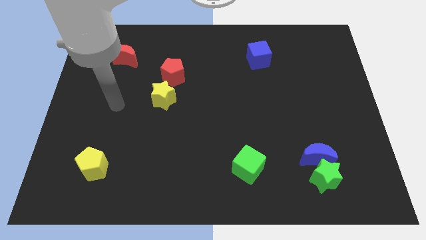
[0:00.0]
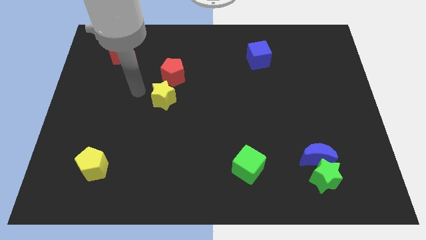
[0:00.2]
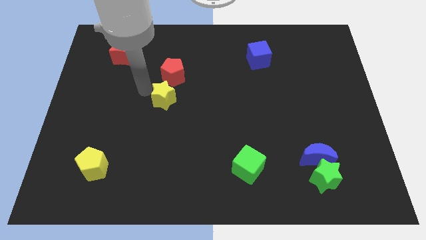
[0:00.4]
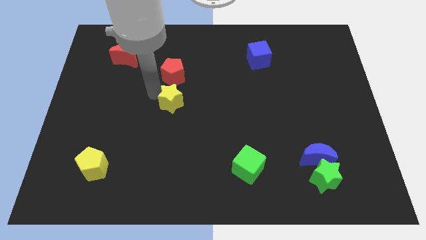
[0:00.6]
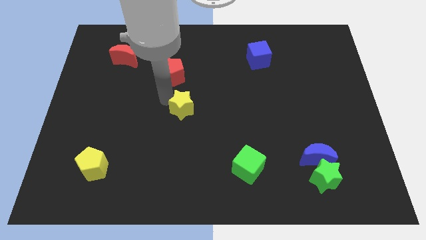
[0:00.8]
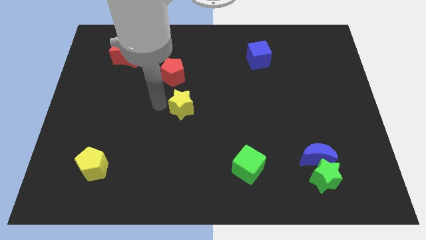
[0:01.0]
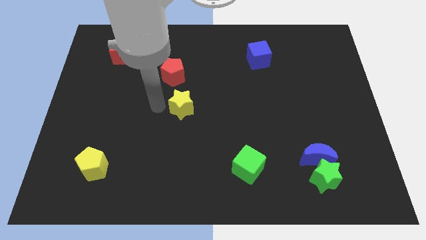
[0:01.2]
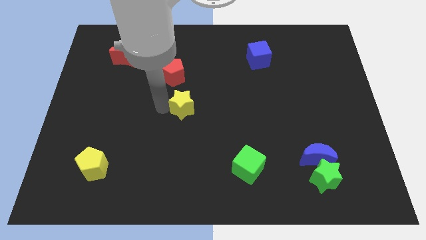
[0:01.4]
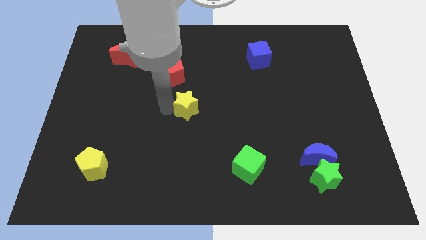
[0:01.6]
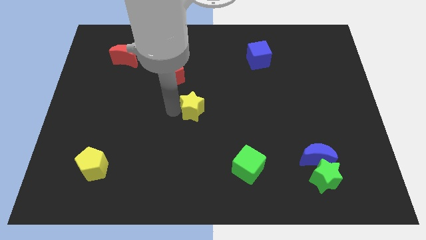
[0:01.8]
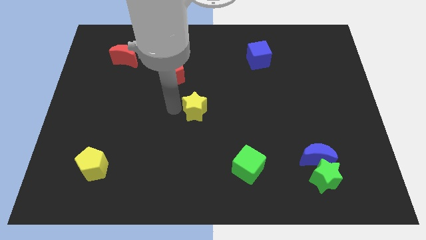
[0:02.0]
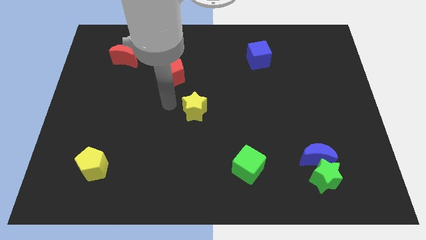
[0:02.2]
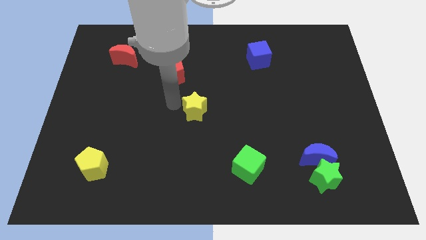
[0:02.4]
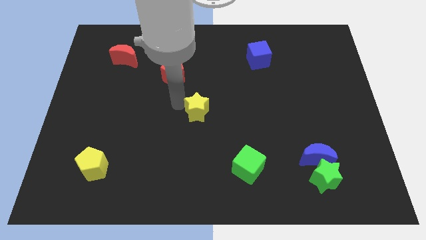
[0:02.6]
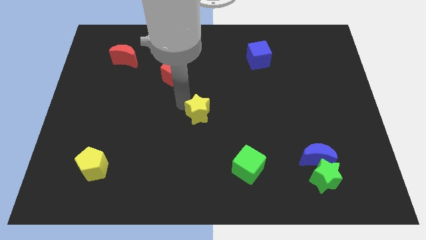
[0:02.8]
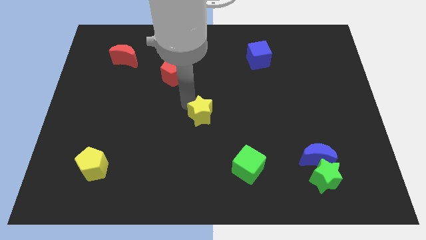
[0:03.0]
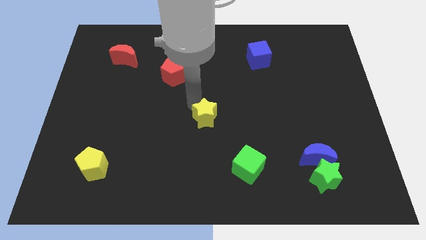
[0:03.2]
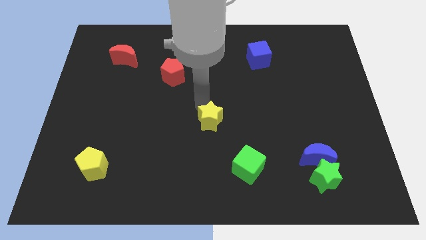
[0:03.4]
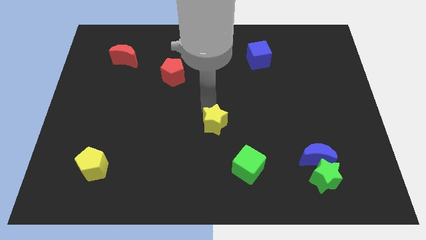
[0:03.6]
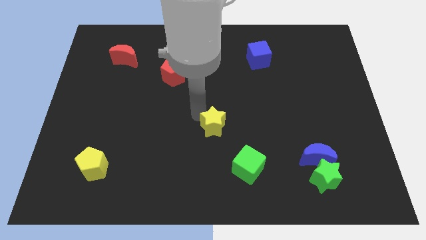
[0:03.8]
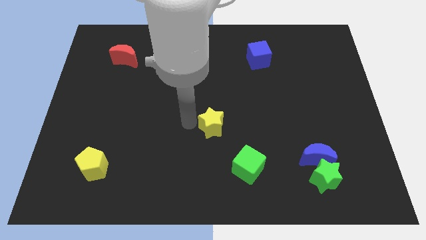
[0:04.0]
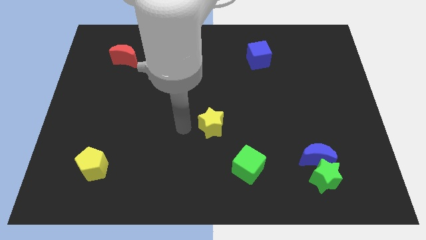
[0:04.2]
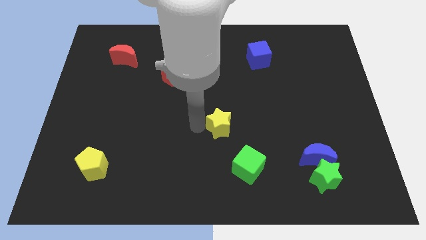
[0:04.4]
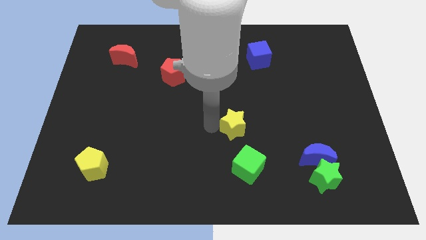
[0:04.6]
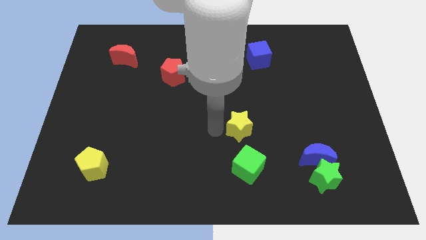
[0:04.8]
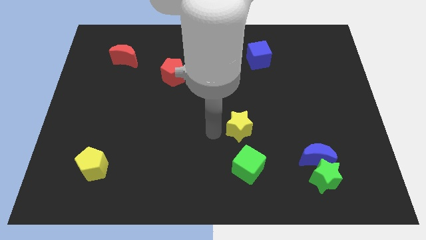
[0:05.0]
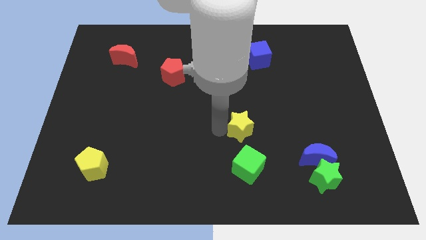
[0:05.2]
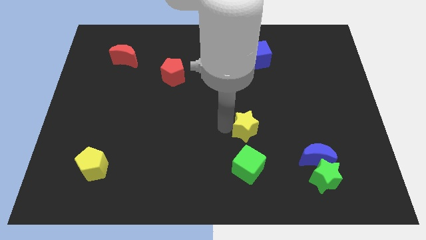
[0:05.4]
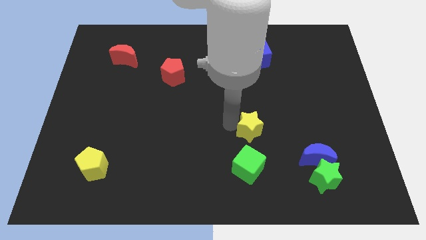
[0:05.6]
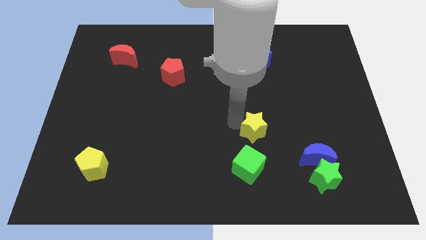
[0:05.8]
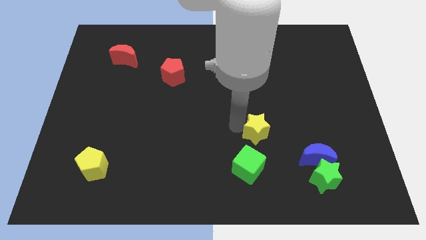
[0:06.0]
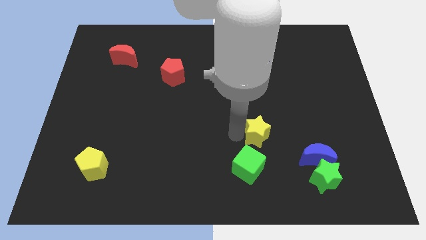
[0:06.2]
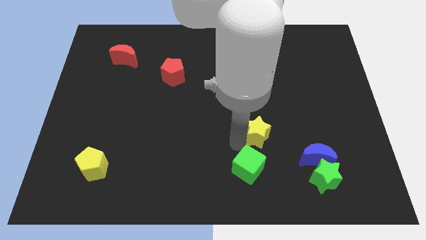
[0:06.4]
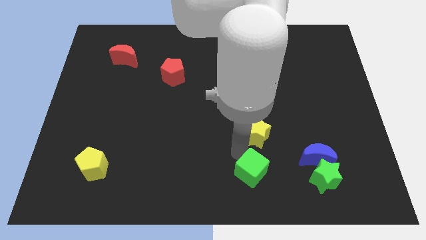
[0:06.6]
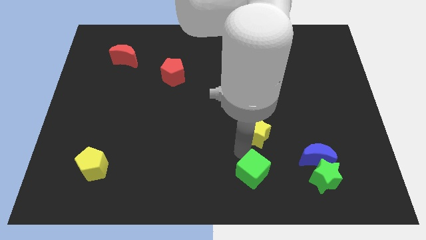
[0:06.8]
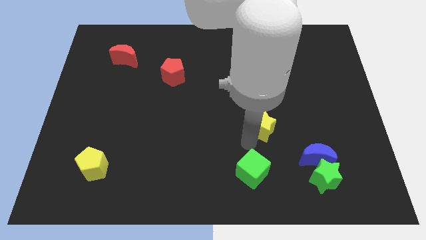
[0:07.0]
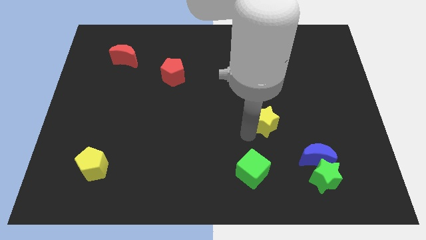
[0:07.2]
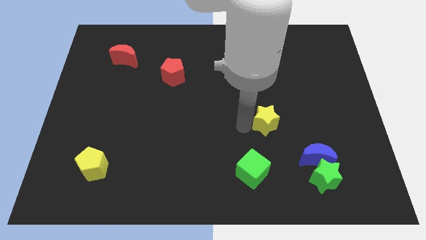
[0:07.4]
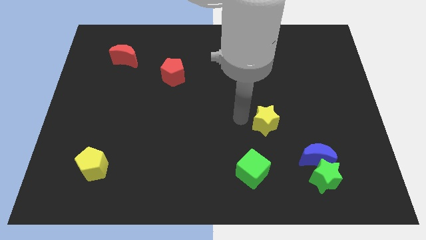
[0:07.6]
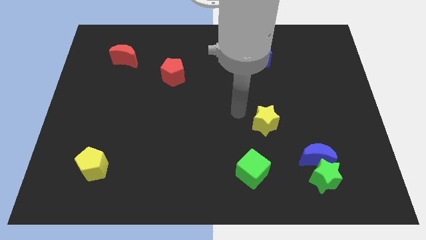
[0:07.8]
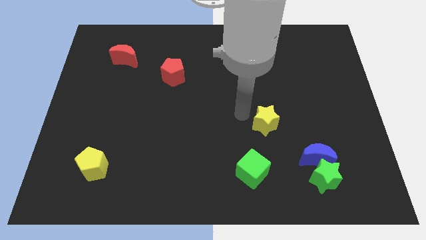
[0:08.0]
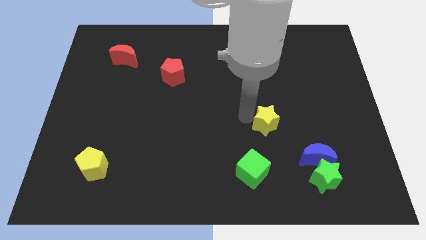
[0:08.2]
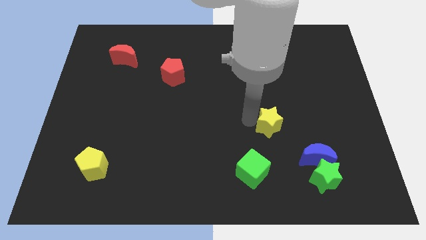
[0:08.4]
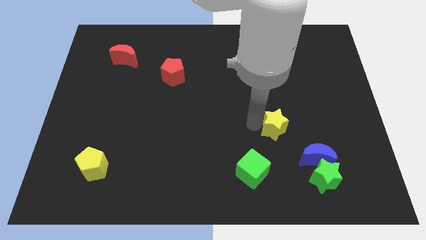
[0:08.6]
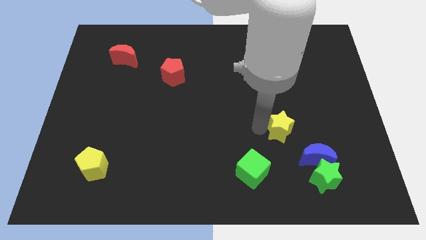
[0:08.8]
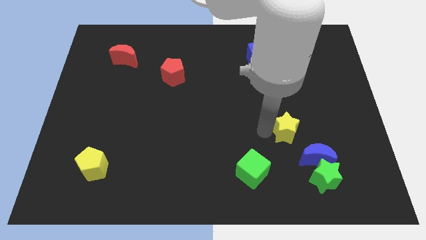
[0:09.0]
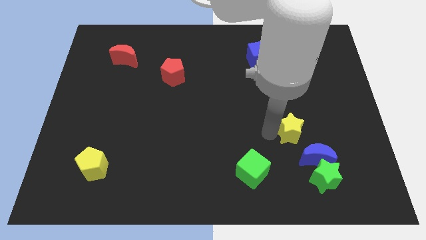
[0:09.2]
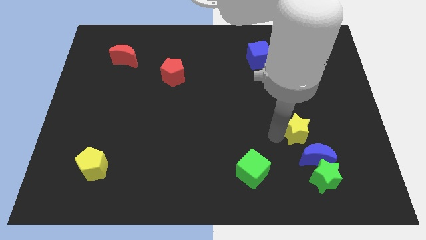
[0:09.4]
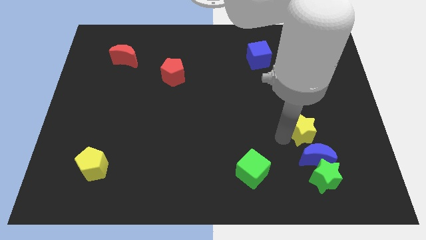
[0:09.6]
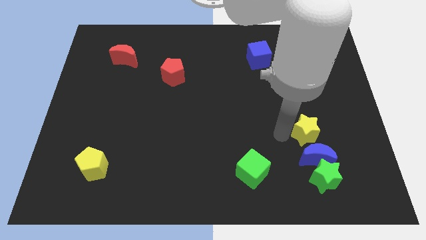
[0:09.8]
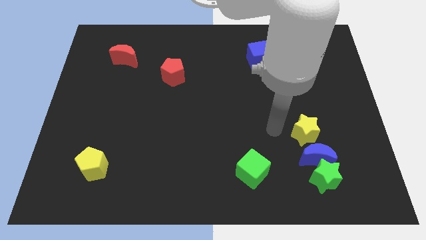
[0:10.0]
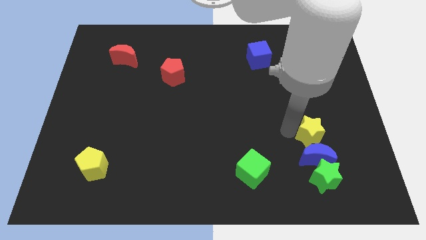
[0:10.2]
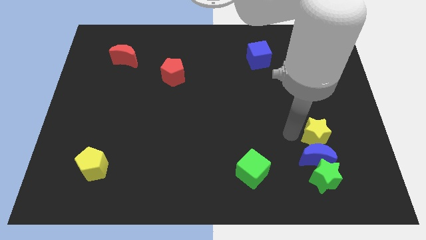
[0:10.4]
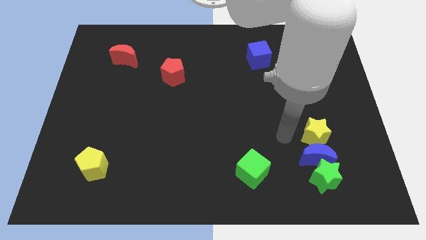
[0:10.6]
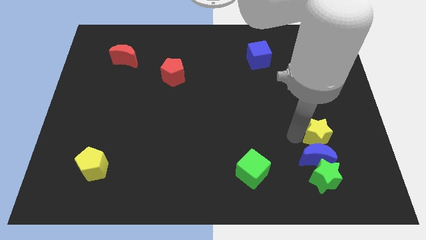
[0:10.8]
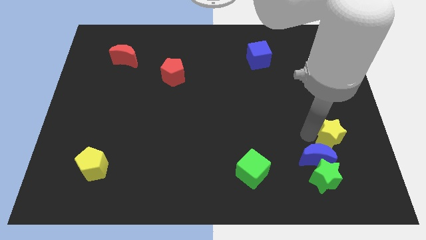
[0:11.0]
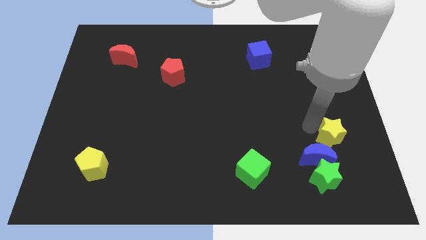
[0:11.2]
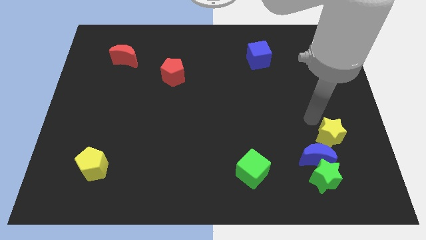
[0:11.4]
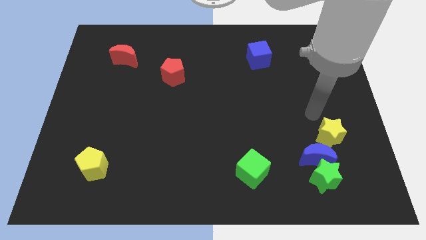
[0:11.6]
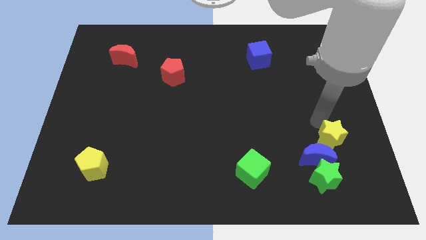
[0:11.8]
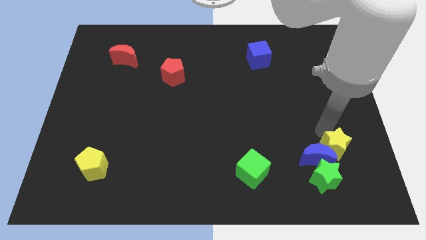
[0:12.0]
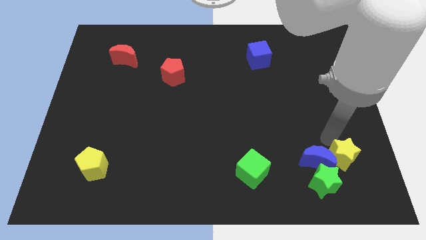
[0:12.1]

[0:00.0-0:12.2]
put the yellow star to the bottom right of the blue moon

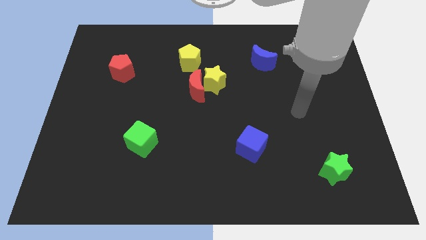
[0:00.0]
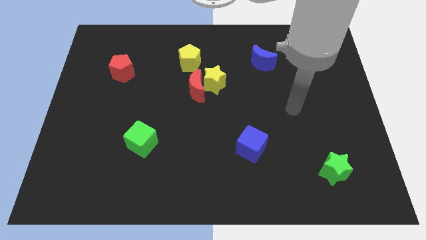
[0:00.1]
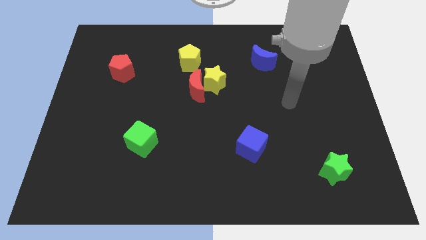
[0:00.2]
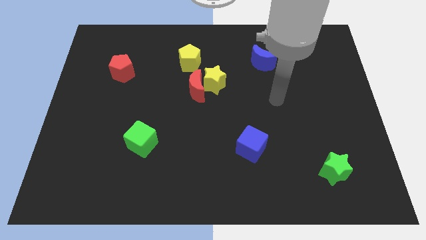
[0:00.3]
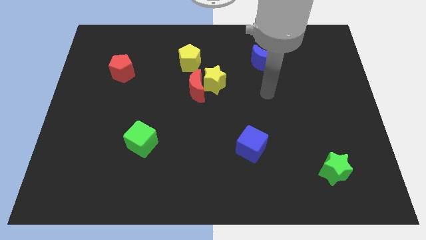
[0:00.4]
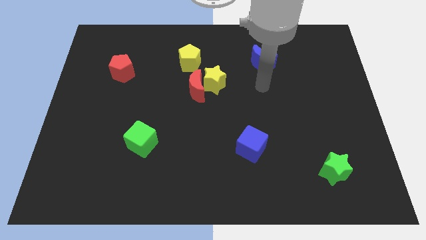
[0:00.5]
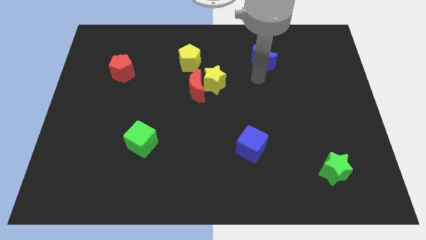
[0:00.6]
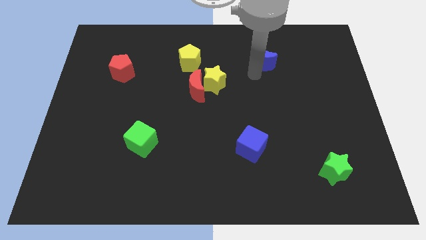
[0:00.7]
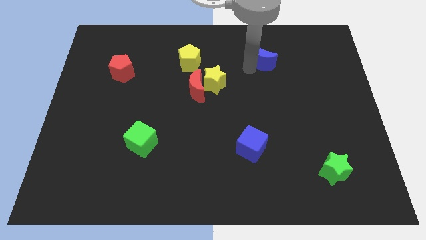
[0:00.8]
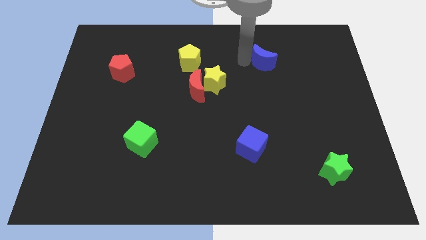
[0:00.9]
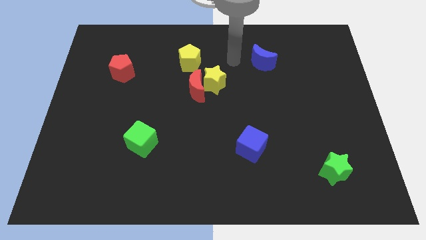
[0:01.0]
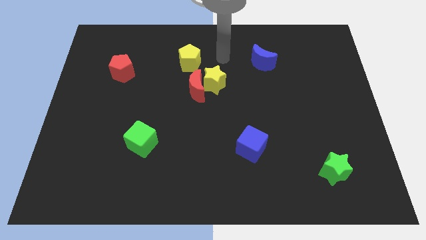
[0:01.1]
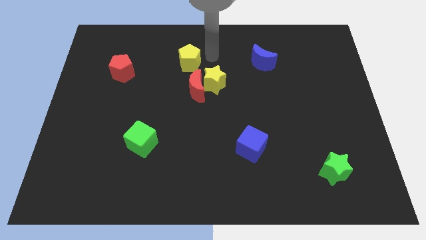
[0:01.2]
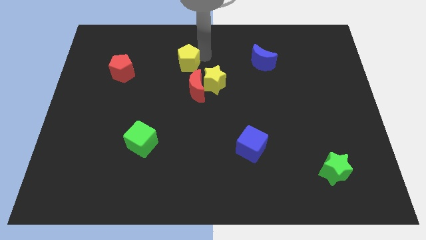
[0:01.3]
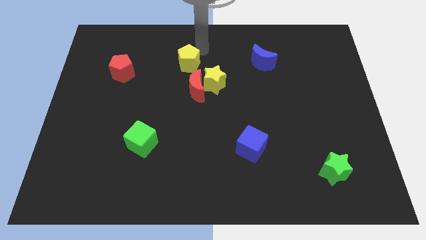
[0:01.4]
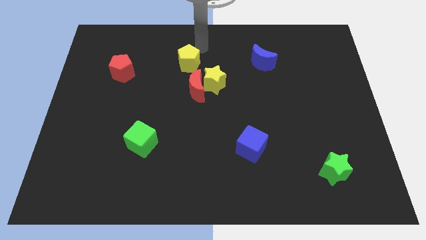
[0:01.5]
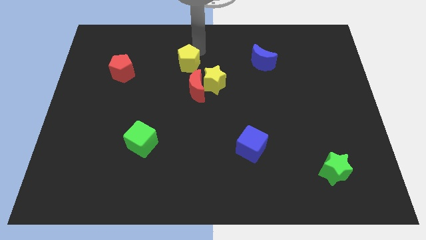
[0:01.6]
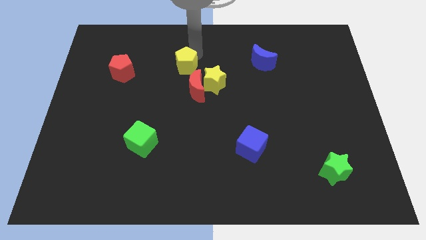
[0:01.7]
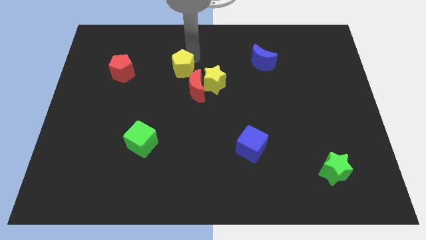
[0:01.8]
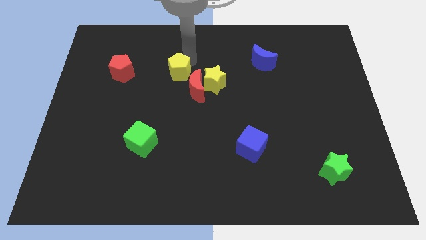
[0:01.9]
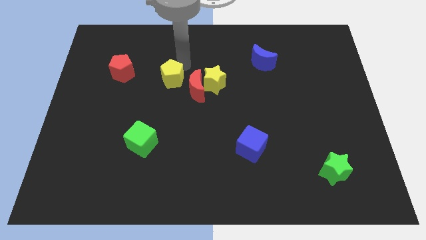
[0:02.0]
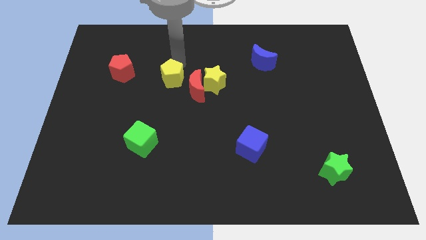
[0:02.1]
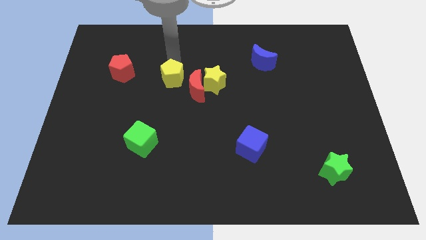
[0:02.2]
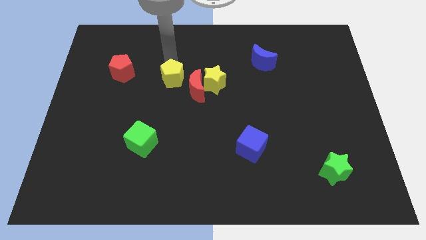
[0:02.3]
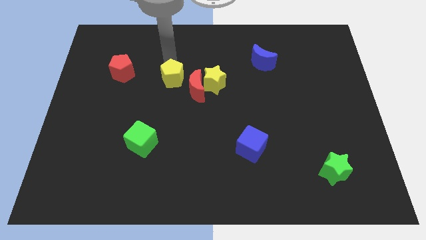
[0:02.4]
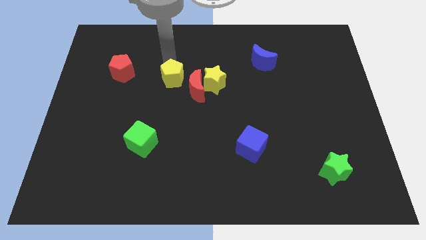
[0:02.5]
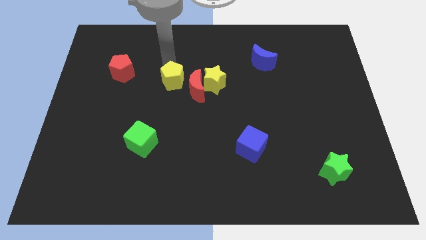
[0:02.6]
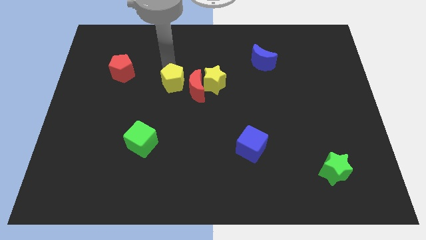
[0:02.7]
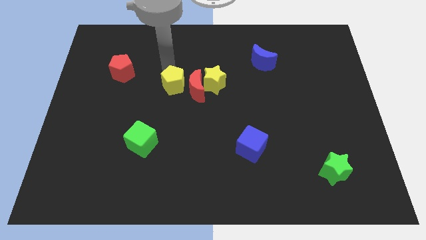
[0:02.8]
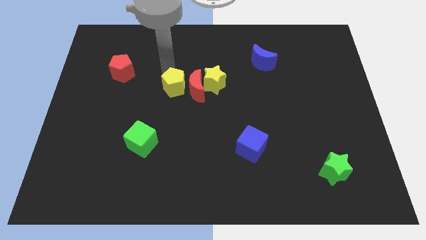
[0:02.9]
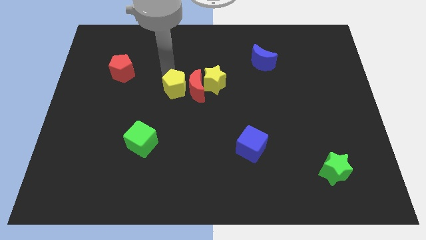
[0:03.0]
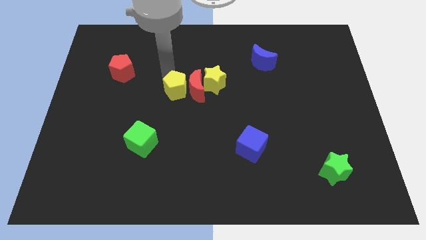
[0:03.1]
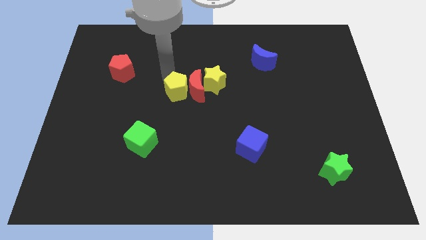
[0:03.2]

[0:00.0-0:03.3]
put the yellow pentagon diagonally down and to the left of the yellow star
